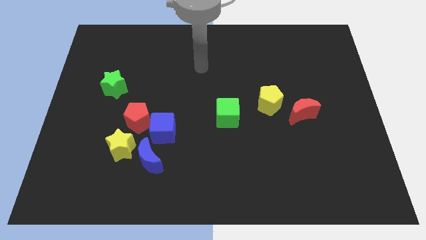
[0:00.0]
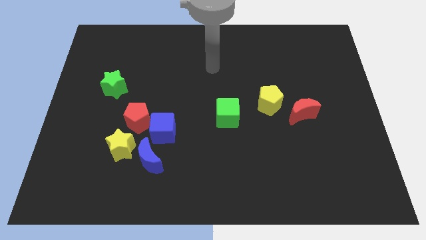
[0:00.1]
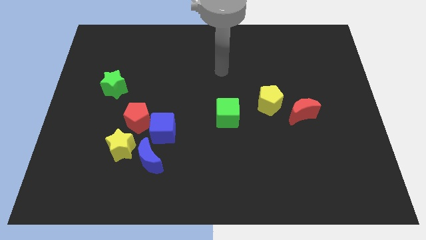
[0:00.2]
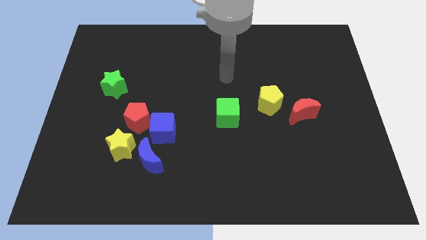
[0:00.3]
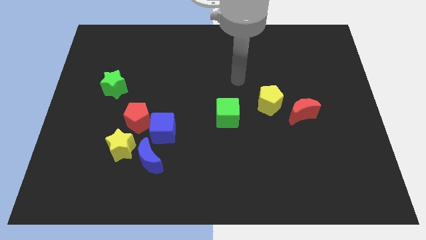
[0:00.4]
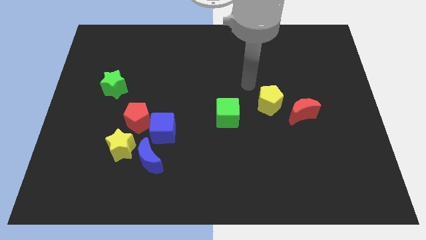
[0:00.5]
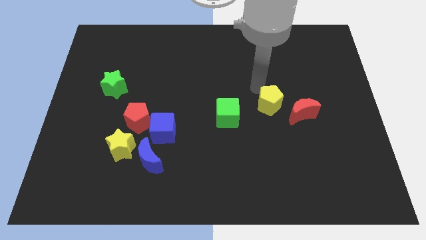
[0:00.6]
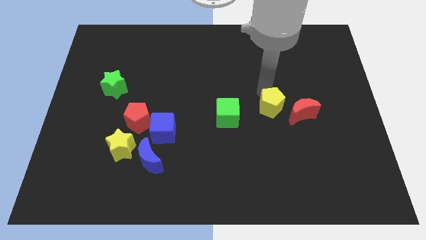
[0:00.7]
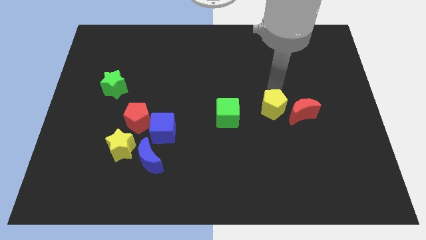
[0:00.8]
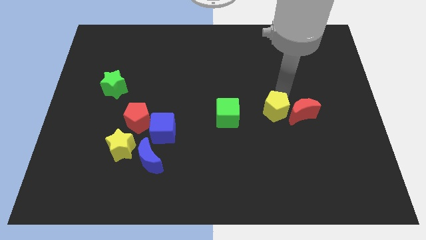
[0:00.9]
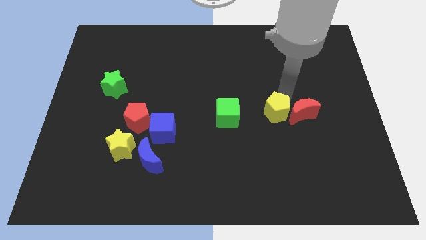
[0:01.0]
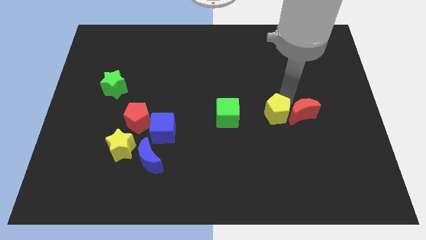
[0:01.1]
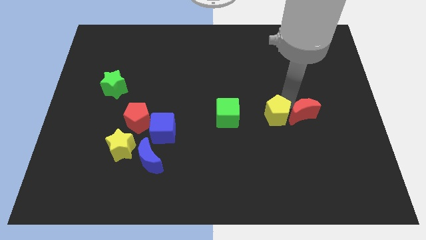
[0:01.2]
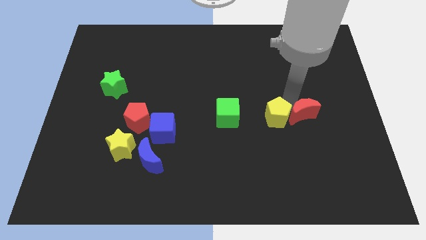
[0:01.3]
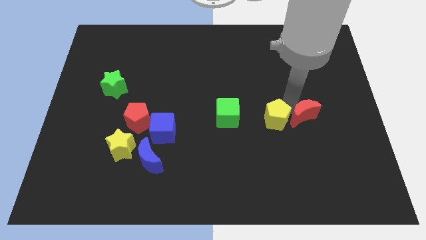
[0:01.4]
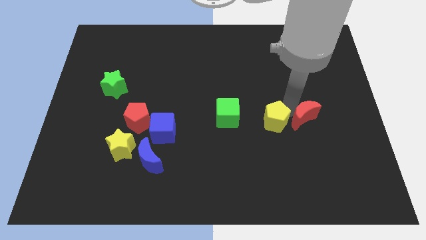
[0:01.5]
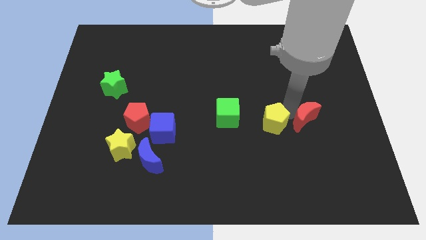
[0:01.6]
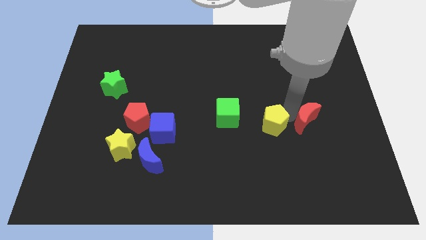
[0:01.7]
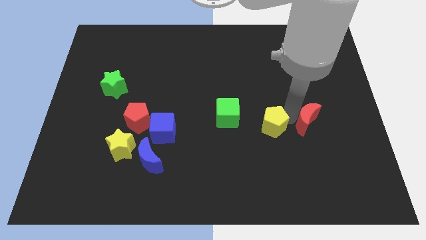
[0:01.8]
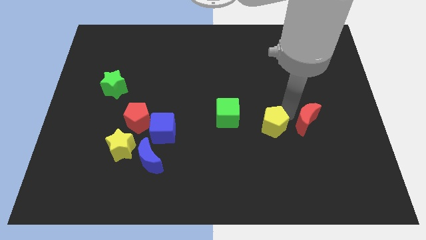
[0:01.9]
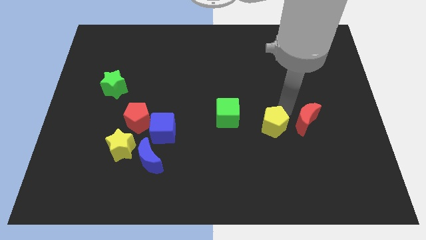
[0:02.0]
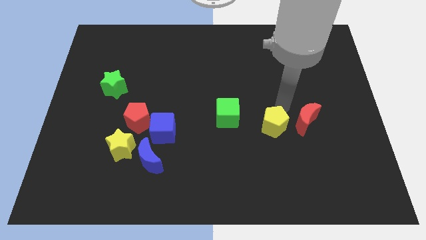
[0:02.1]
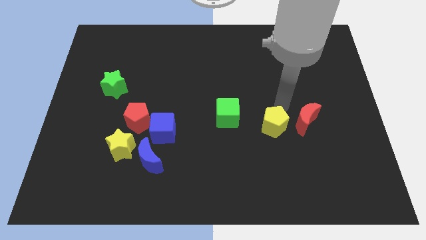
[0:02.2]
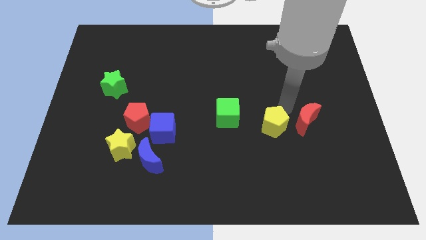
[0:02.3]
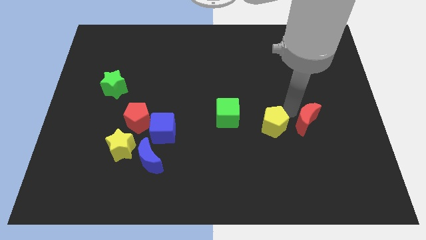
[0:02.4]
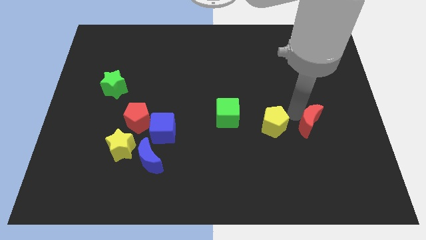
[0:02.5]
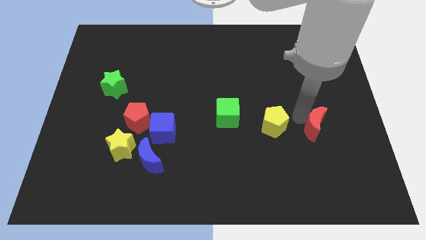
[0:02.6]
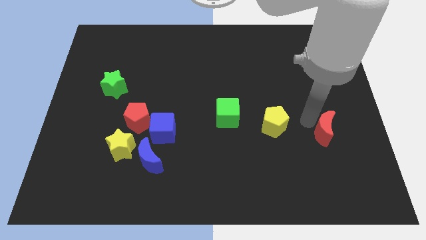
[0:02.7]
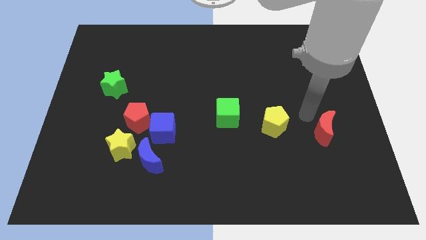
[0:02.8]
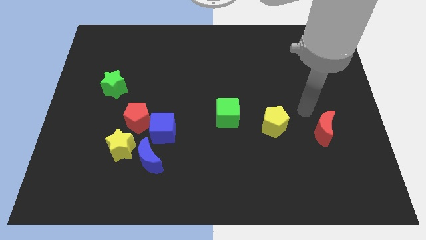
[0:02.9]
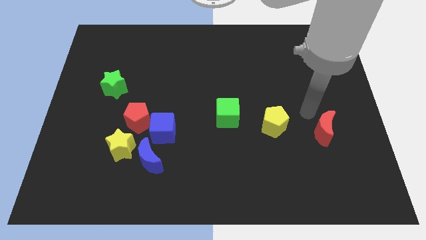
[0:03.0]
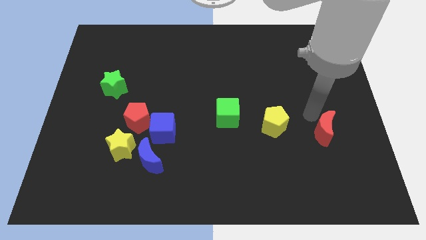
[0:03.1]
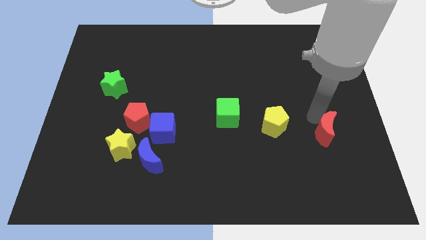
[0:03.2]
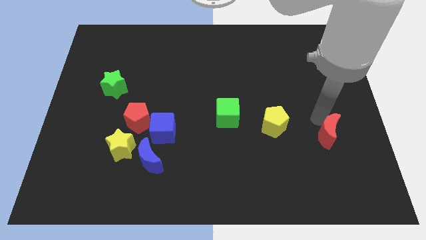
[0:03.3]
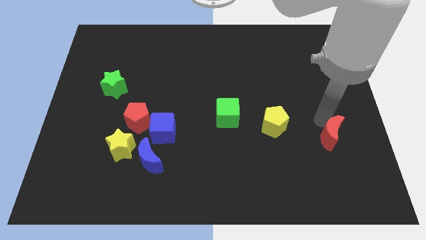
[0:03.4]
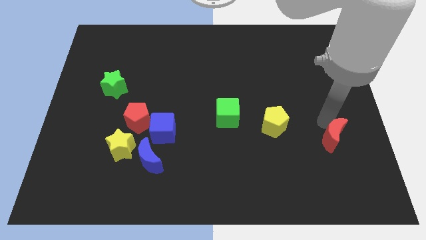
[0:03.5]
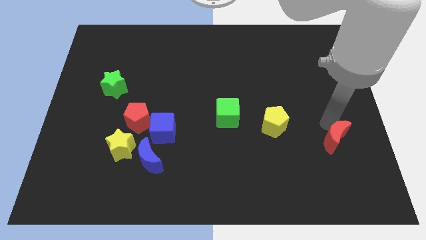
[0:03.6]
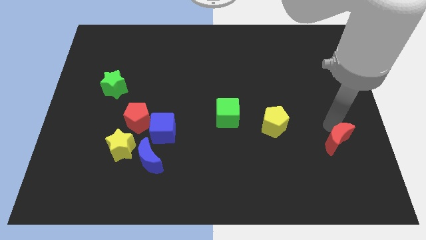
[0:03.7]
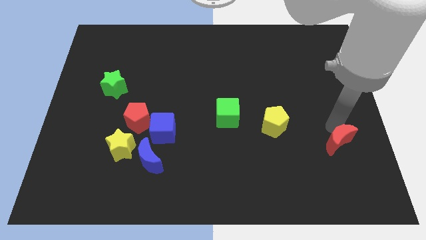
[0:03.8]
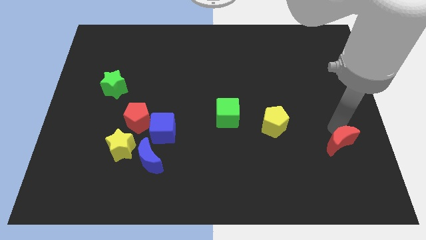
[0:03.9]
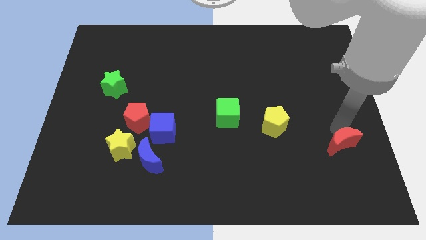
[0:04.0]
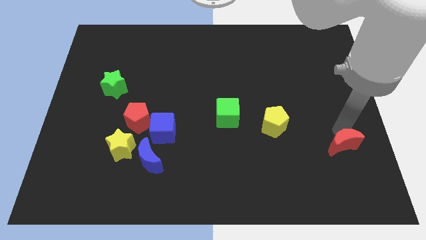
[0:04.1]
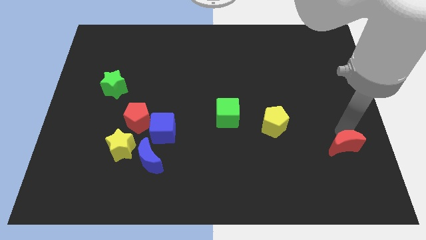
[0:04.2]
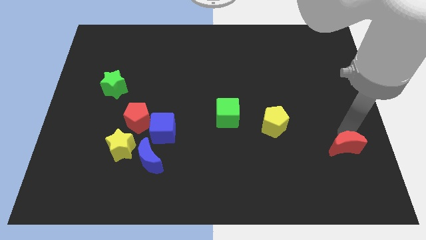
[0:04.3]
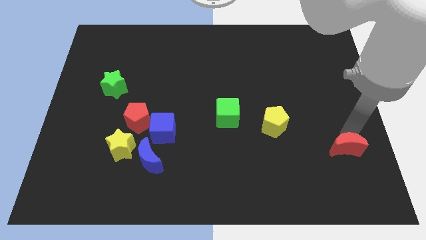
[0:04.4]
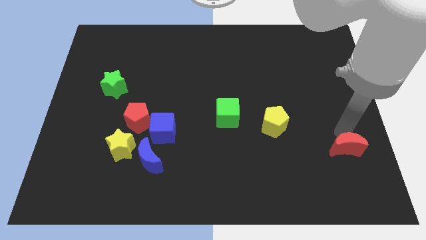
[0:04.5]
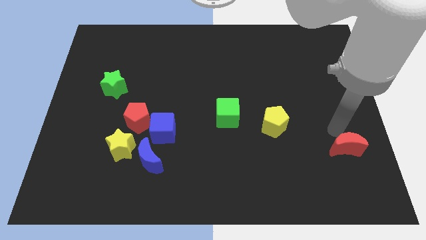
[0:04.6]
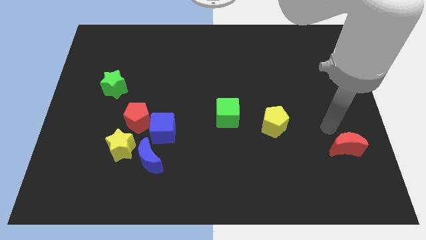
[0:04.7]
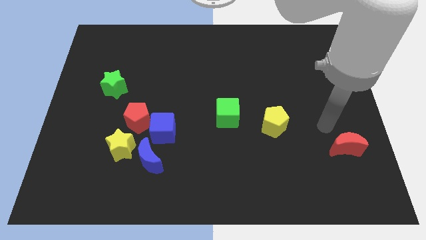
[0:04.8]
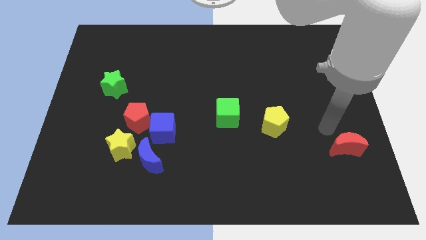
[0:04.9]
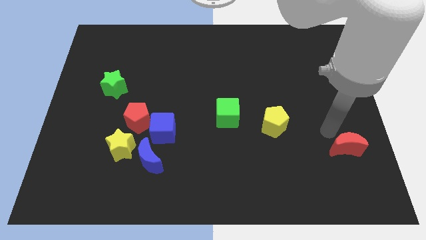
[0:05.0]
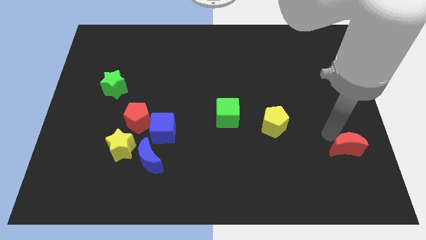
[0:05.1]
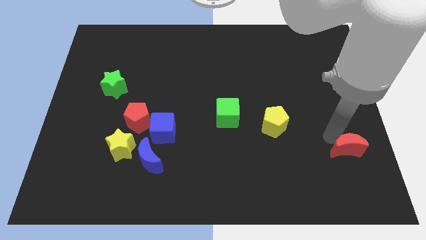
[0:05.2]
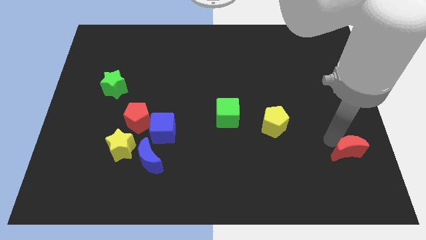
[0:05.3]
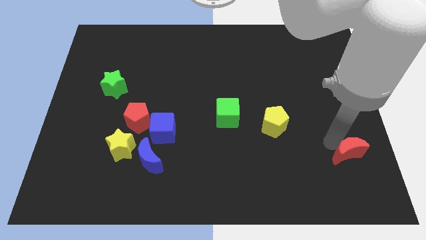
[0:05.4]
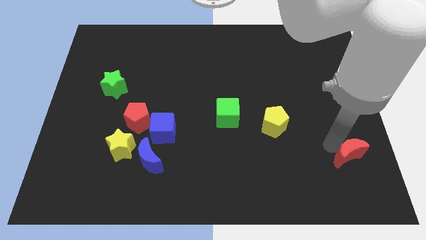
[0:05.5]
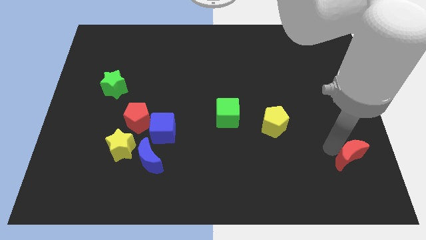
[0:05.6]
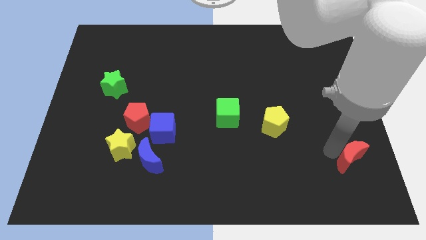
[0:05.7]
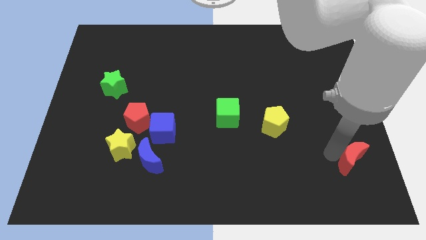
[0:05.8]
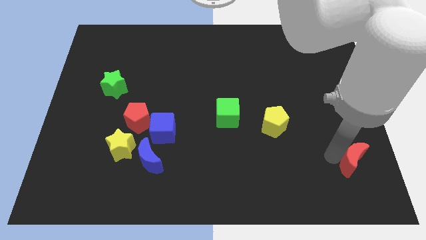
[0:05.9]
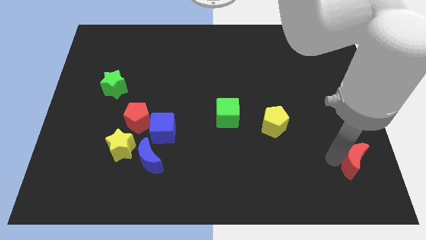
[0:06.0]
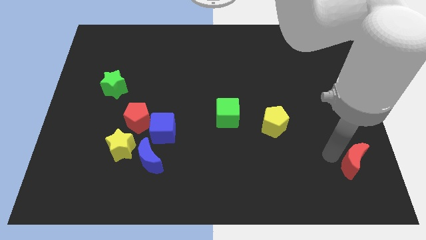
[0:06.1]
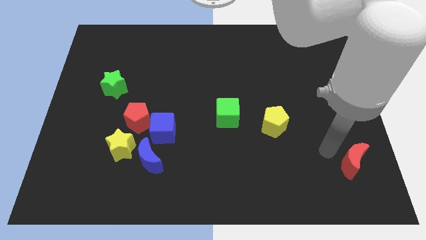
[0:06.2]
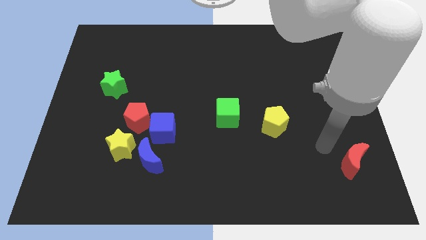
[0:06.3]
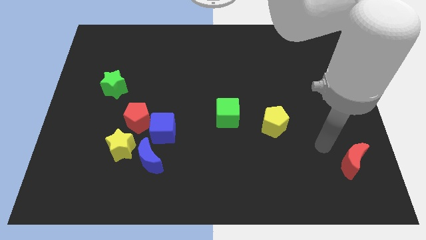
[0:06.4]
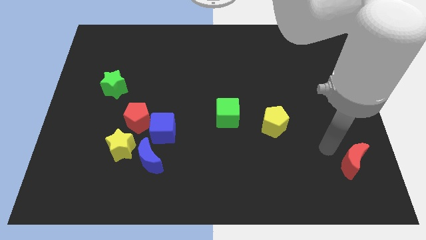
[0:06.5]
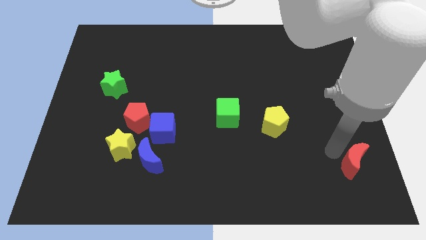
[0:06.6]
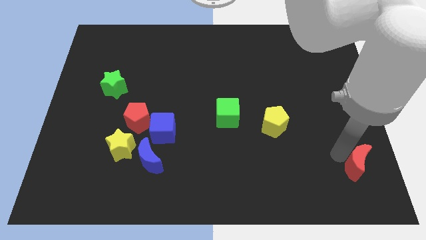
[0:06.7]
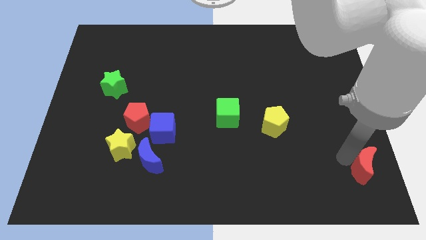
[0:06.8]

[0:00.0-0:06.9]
slide the red moon to the bottom right corner
